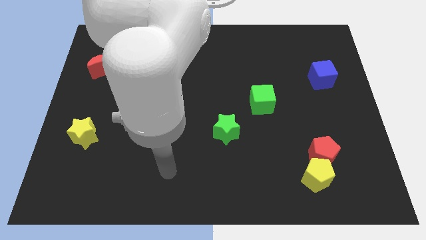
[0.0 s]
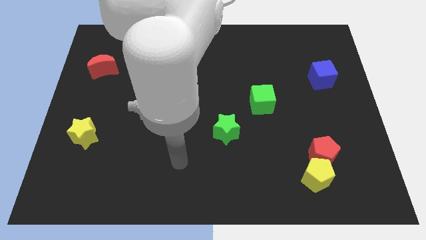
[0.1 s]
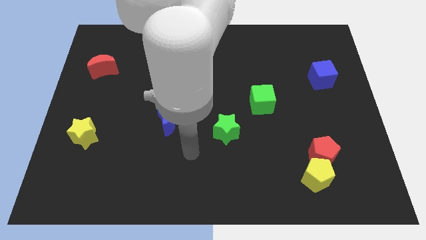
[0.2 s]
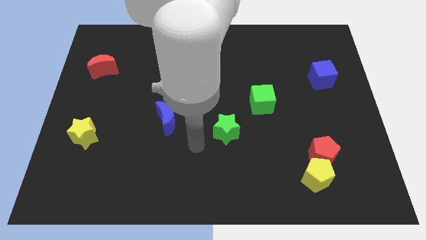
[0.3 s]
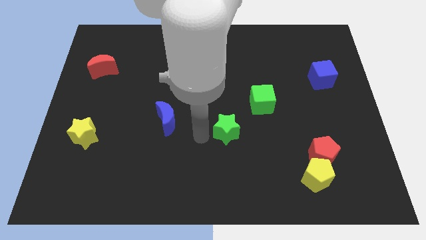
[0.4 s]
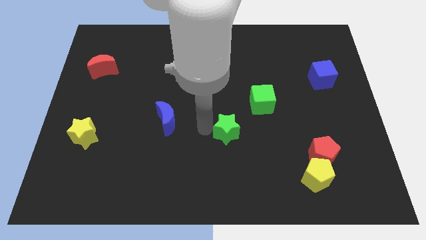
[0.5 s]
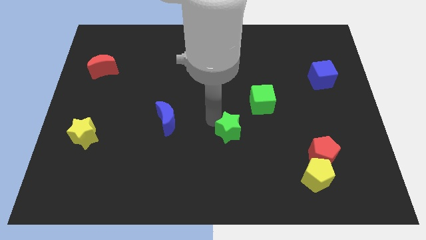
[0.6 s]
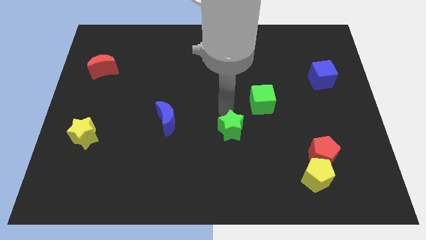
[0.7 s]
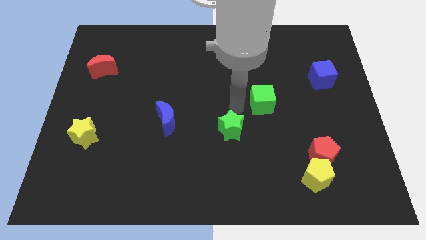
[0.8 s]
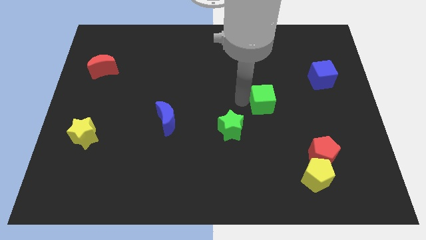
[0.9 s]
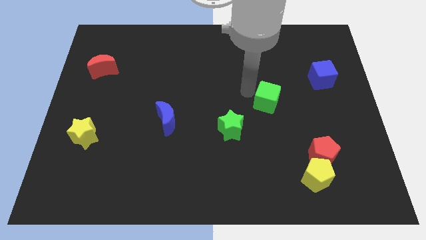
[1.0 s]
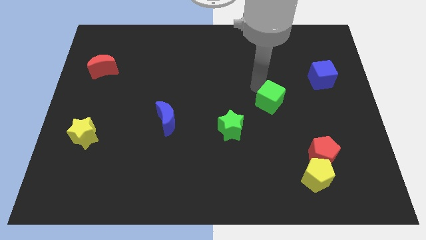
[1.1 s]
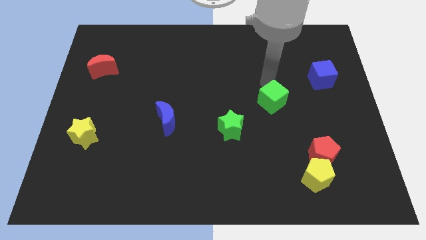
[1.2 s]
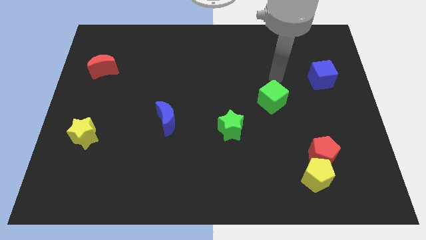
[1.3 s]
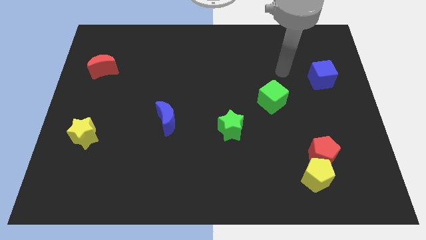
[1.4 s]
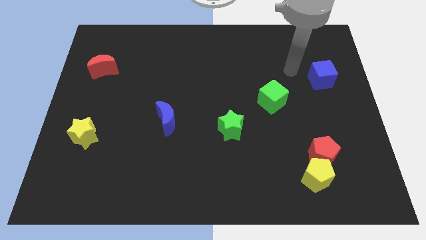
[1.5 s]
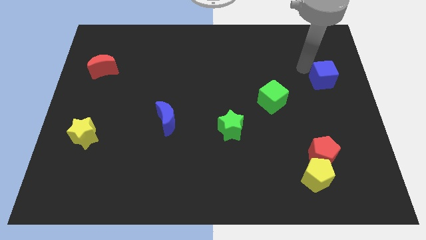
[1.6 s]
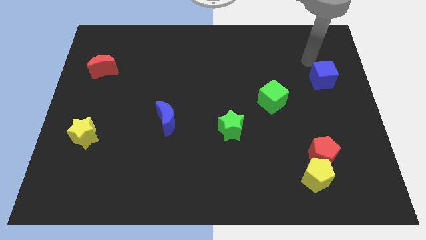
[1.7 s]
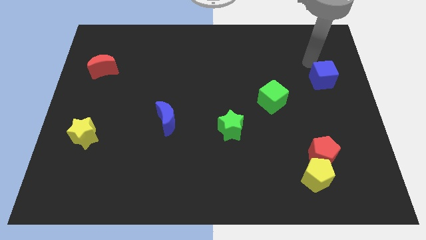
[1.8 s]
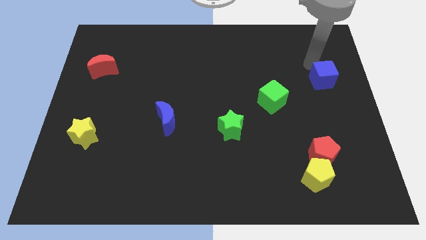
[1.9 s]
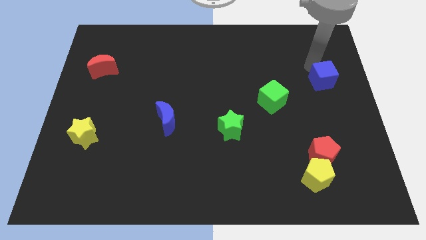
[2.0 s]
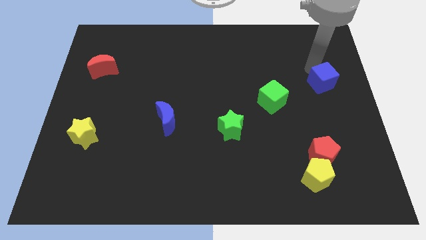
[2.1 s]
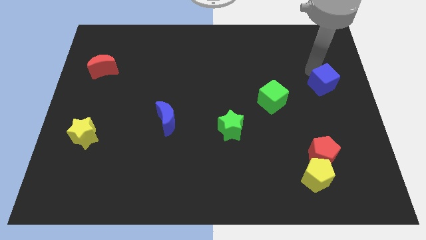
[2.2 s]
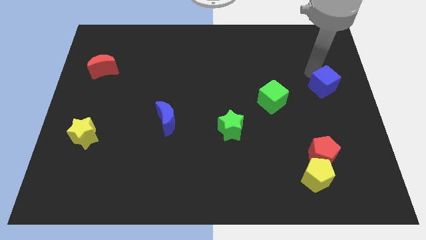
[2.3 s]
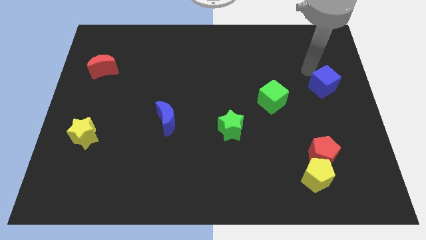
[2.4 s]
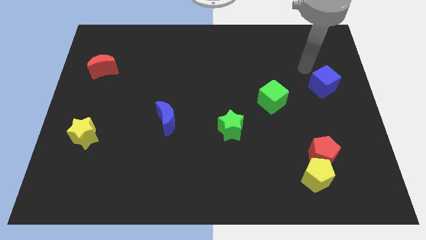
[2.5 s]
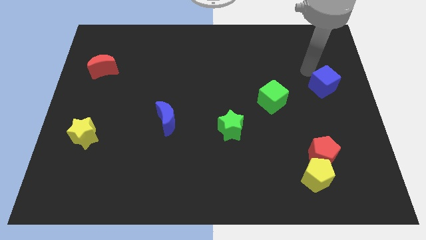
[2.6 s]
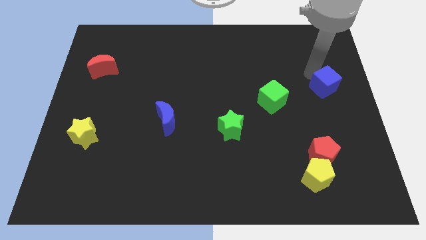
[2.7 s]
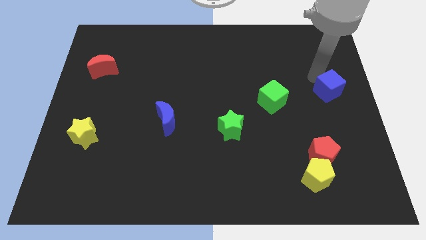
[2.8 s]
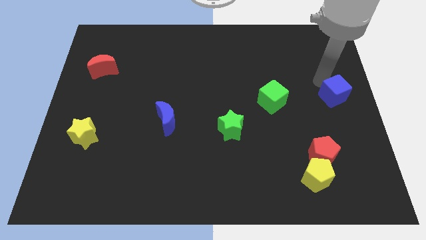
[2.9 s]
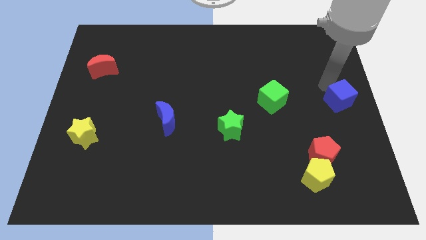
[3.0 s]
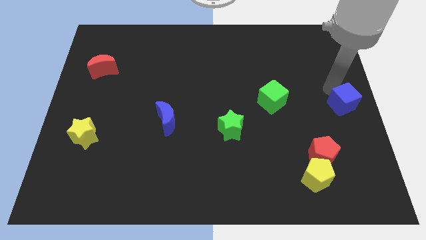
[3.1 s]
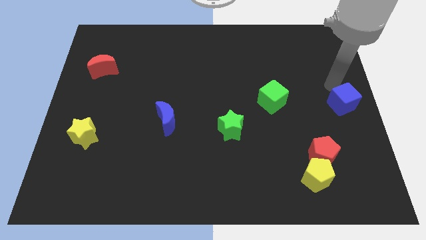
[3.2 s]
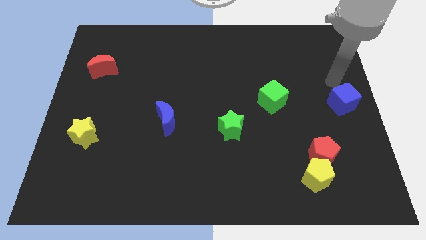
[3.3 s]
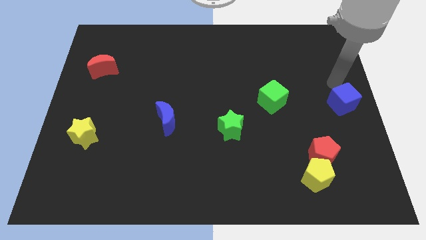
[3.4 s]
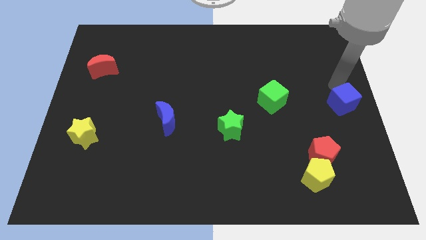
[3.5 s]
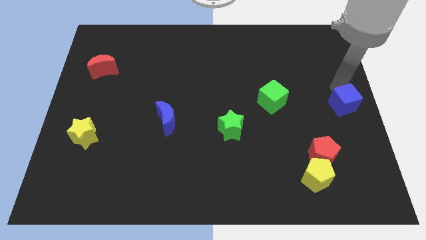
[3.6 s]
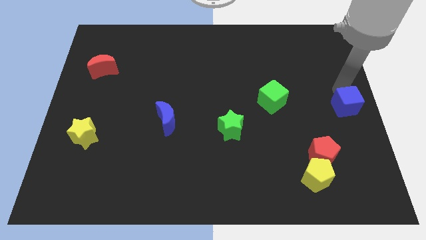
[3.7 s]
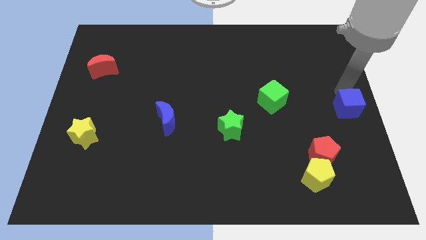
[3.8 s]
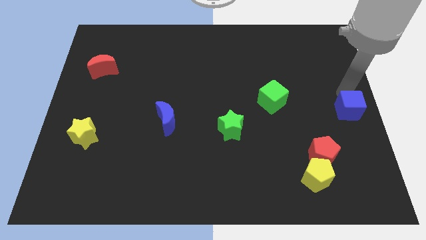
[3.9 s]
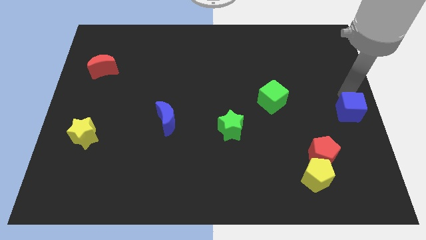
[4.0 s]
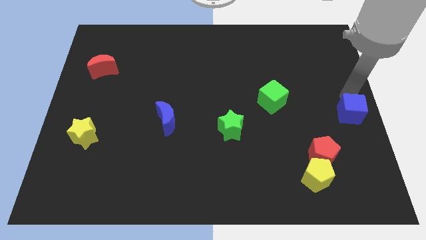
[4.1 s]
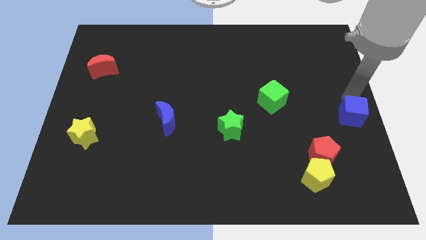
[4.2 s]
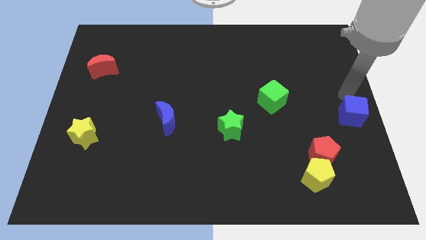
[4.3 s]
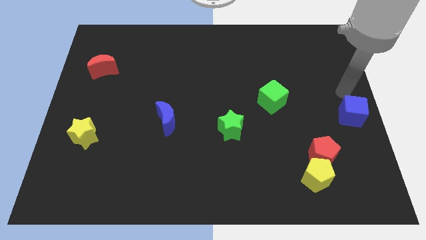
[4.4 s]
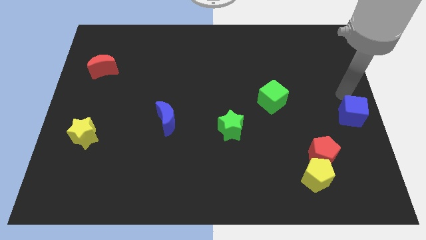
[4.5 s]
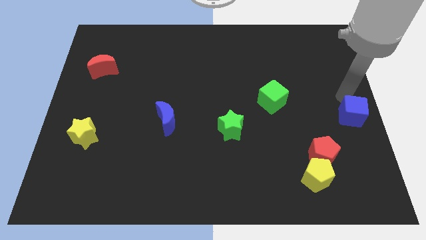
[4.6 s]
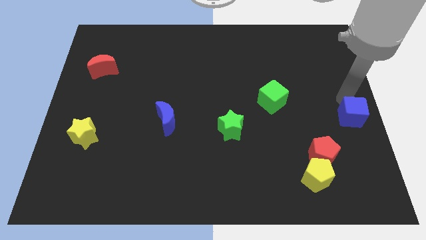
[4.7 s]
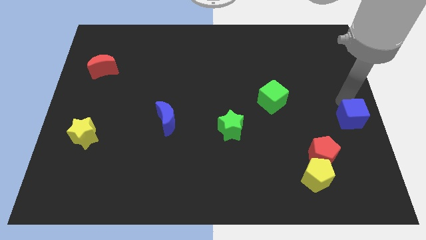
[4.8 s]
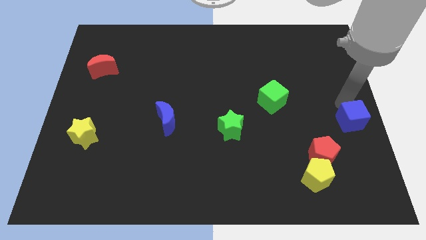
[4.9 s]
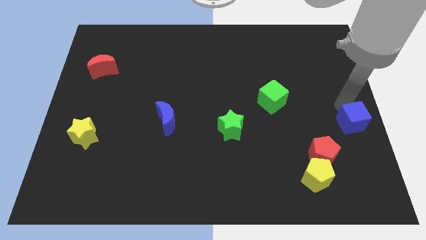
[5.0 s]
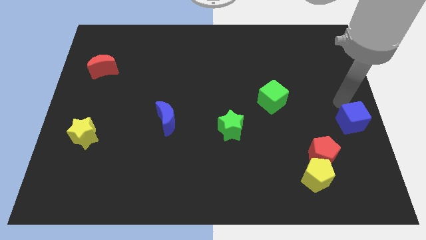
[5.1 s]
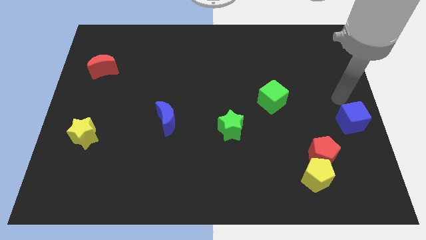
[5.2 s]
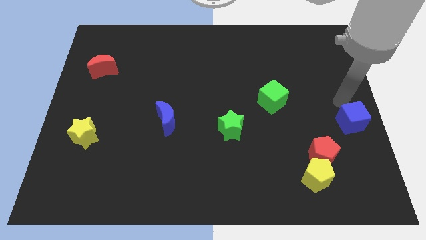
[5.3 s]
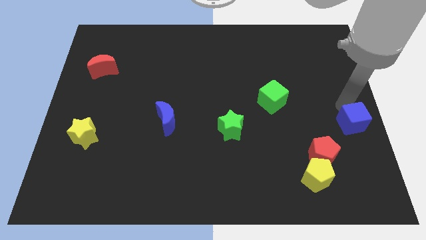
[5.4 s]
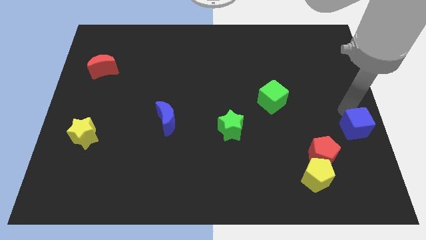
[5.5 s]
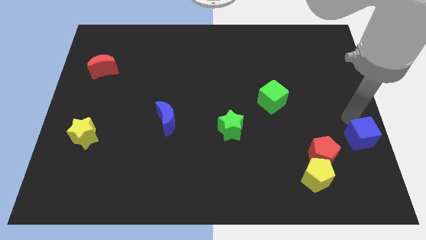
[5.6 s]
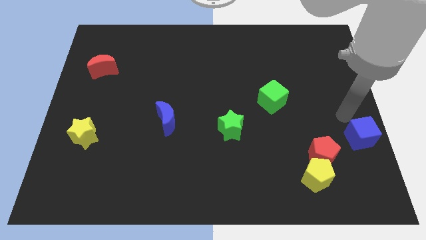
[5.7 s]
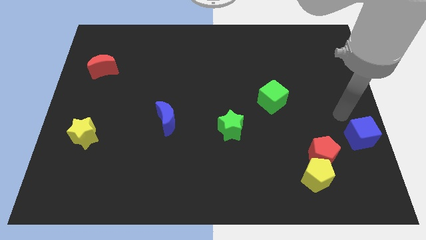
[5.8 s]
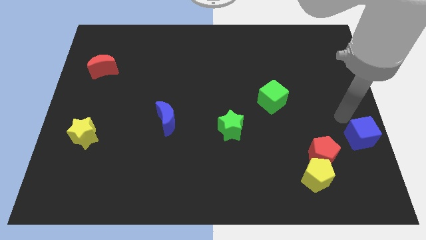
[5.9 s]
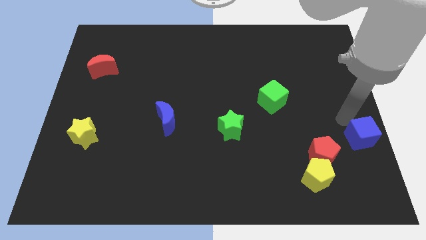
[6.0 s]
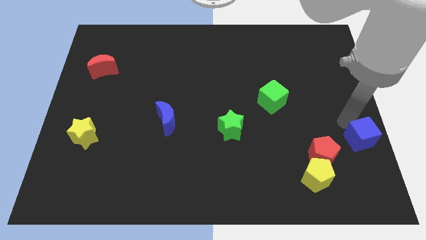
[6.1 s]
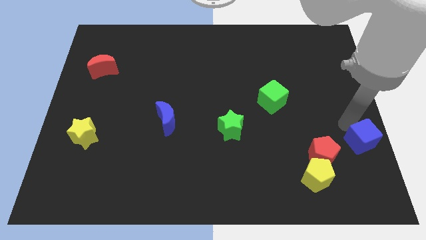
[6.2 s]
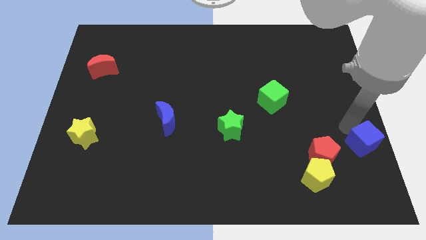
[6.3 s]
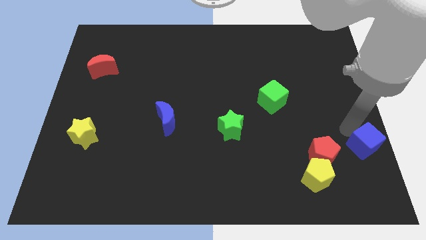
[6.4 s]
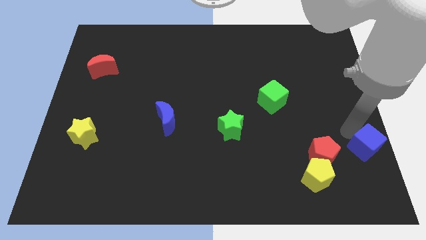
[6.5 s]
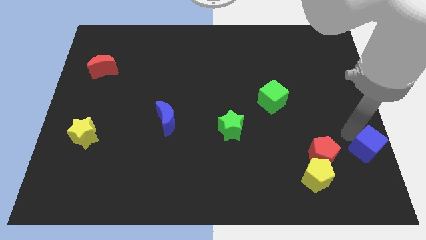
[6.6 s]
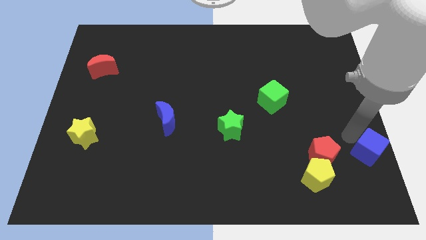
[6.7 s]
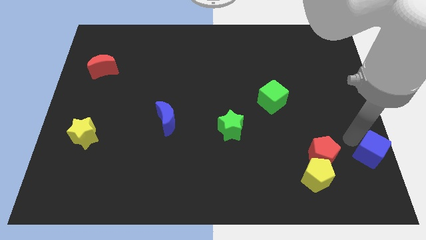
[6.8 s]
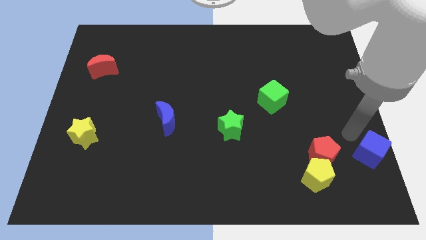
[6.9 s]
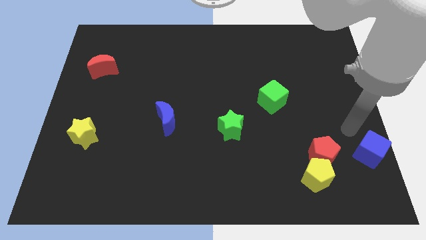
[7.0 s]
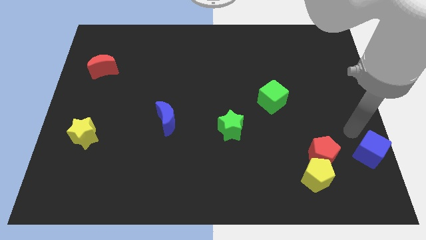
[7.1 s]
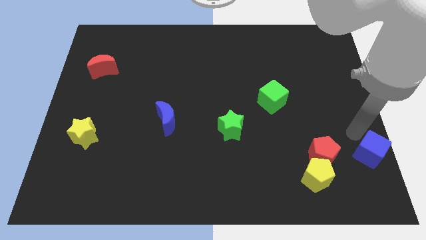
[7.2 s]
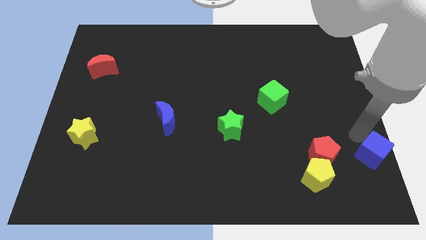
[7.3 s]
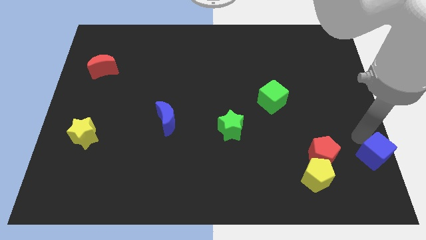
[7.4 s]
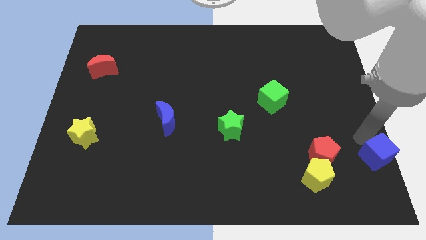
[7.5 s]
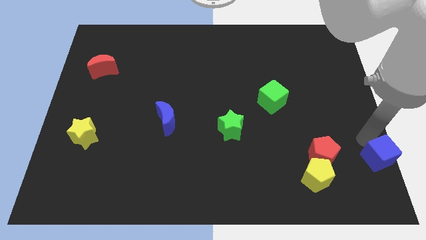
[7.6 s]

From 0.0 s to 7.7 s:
slide the blue cube to the lower right corner
